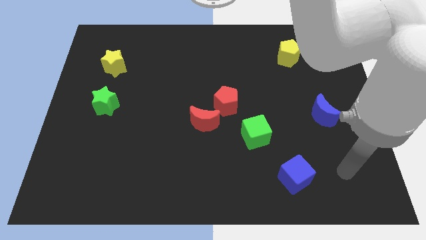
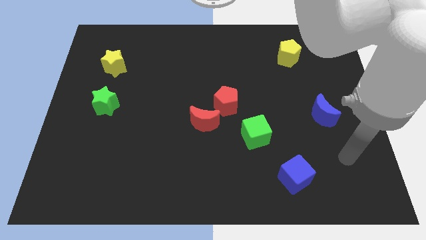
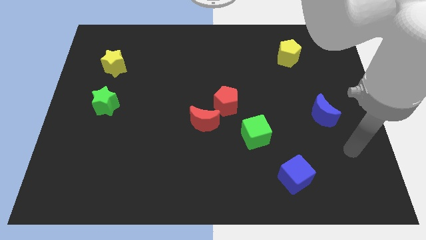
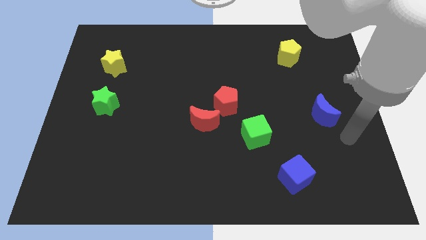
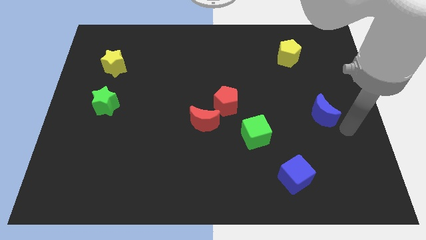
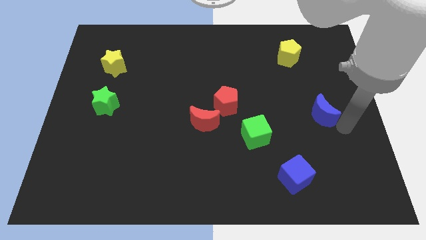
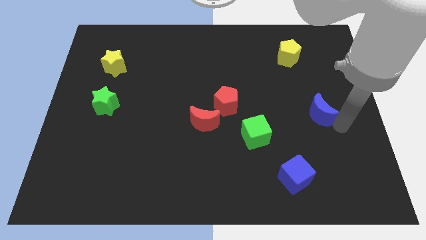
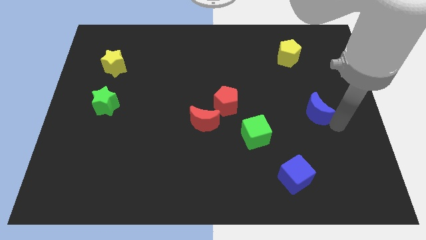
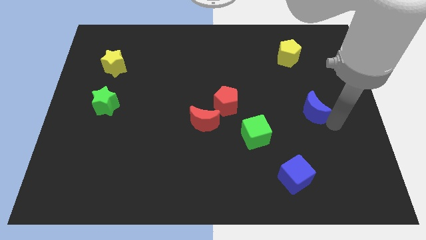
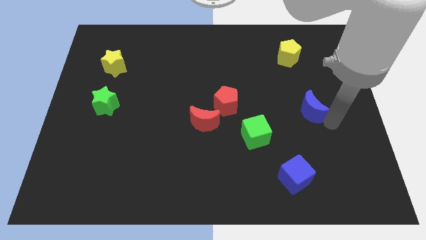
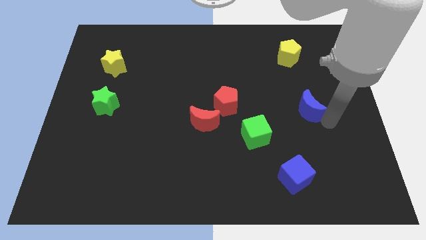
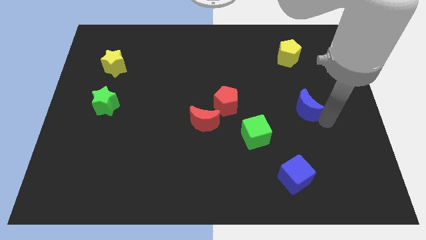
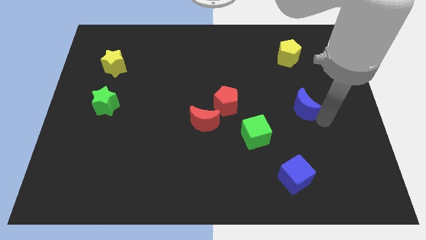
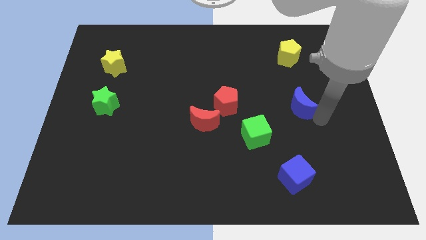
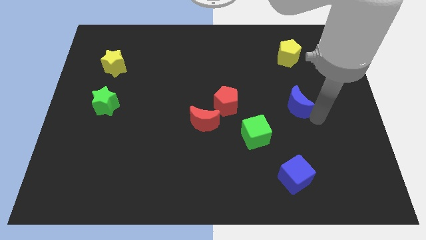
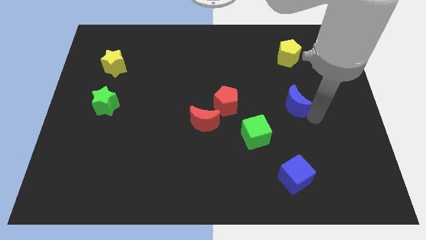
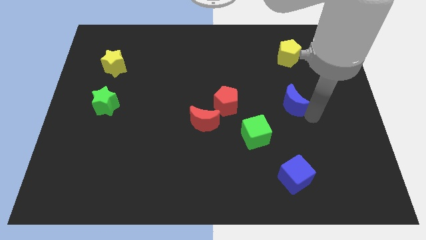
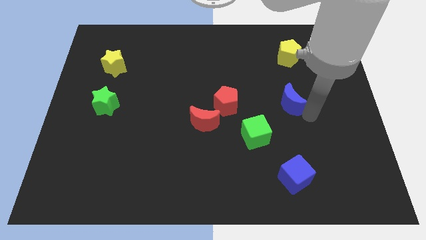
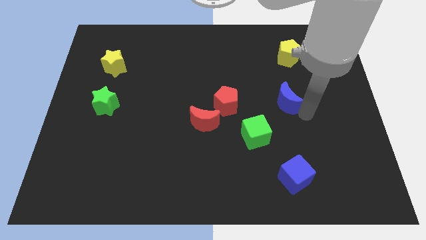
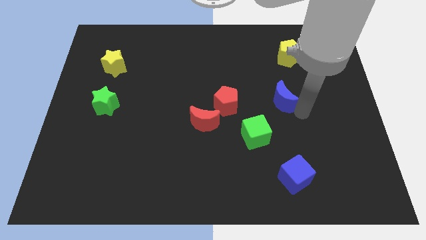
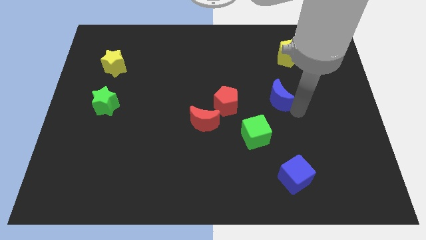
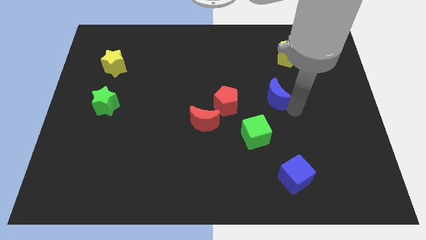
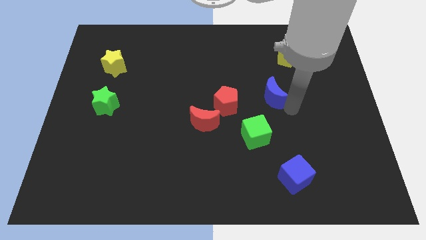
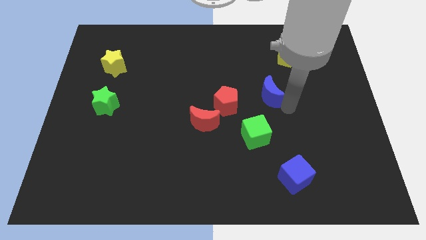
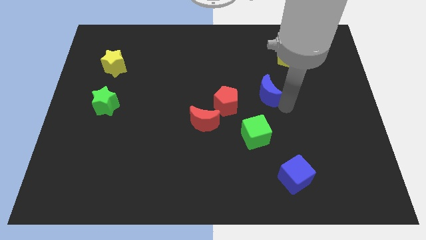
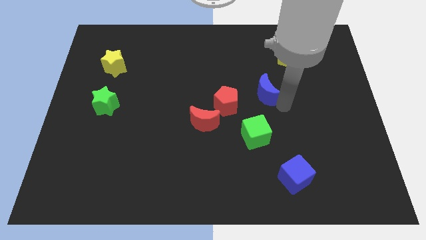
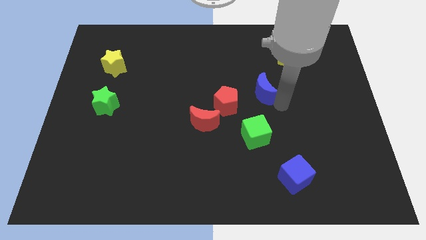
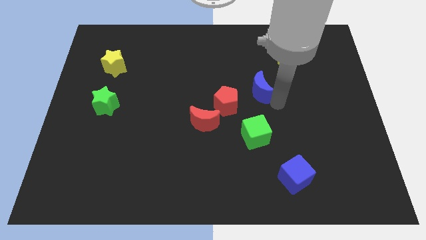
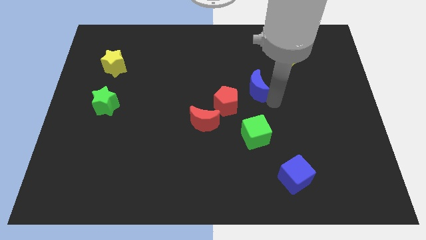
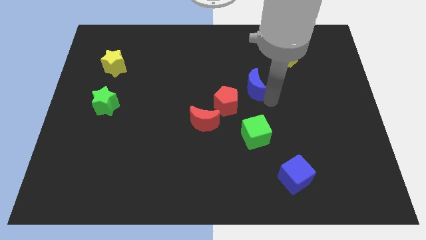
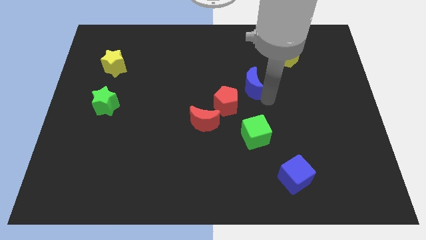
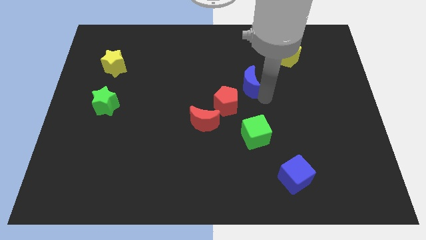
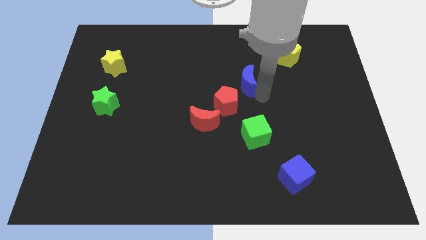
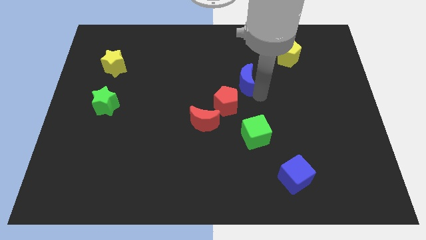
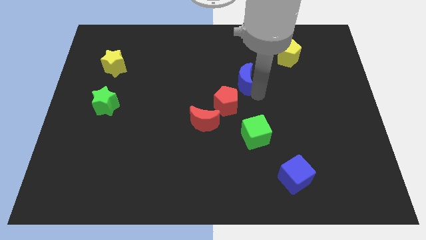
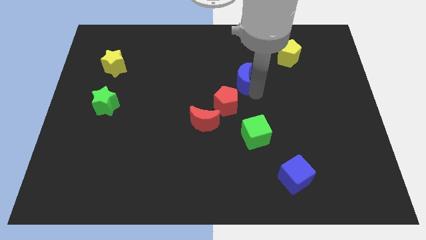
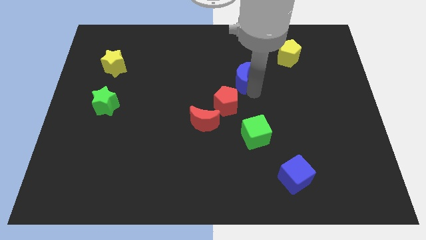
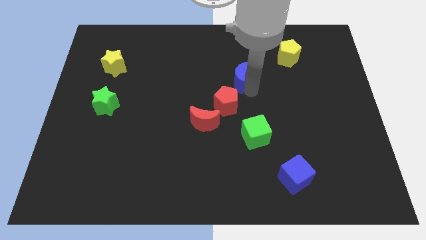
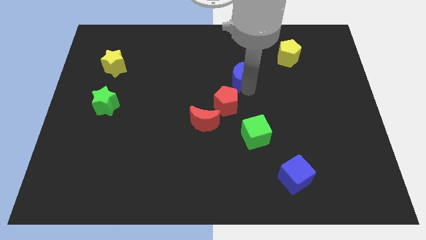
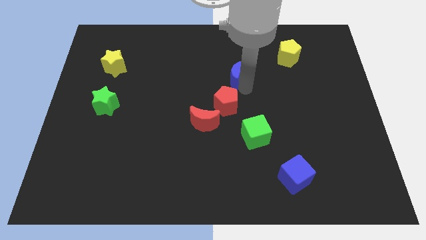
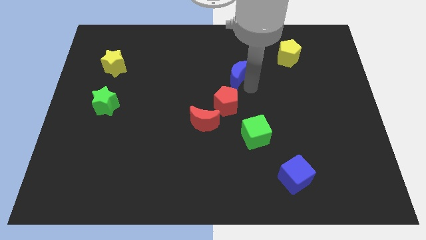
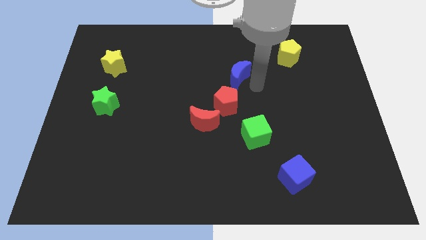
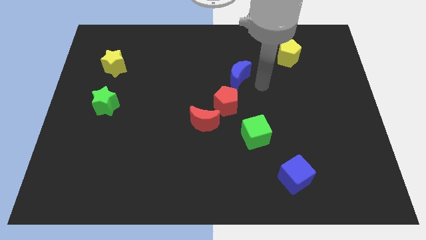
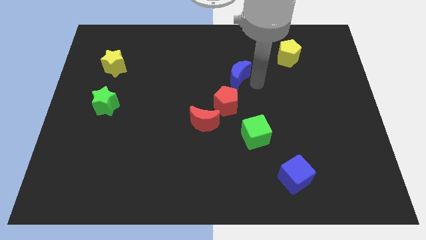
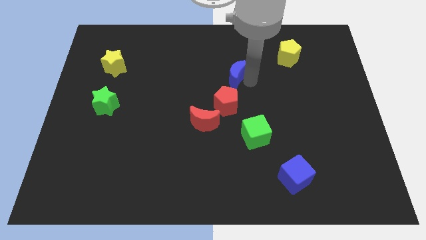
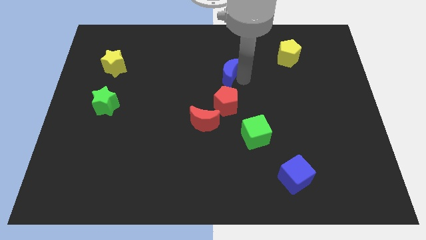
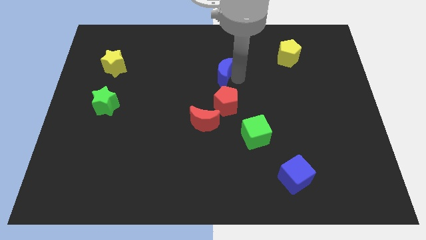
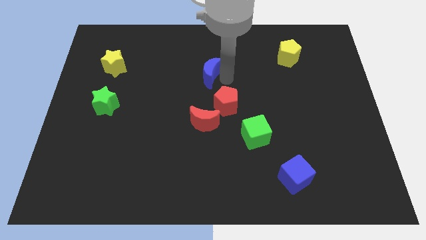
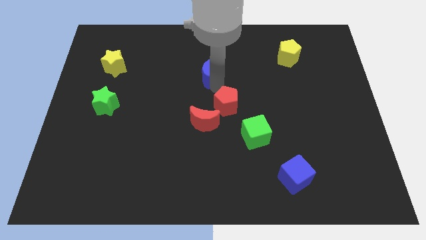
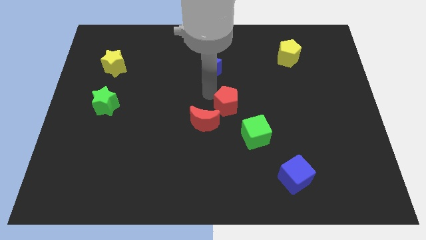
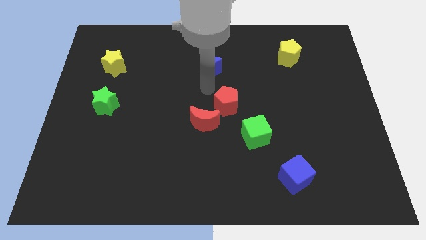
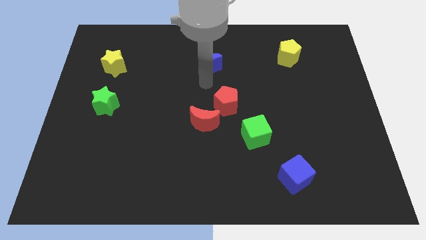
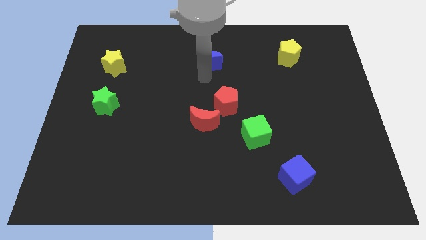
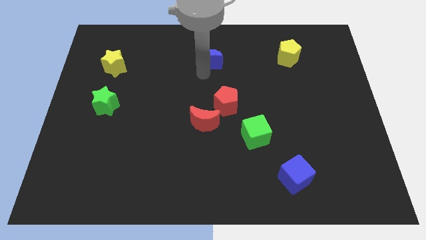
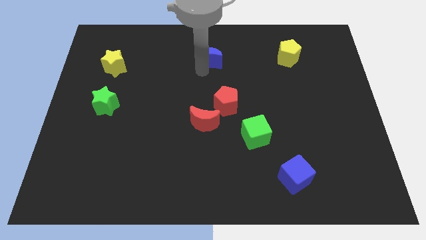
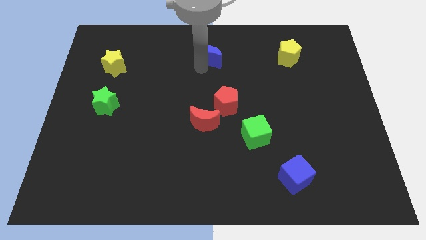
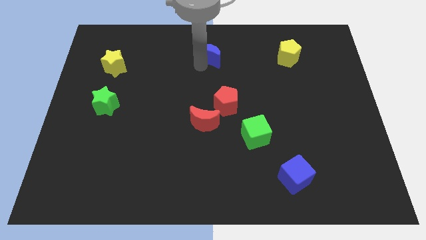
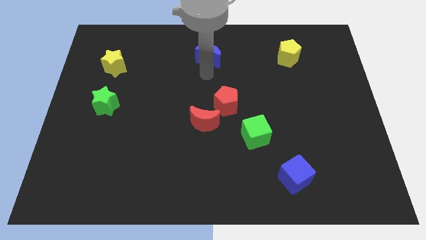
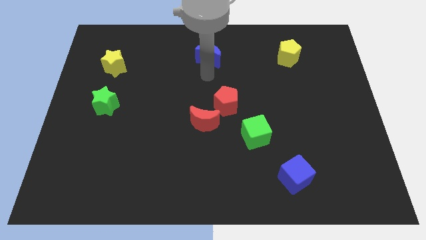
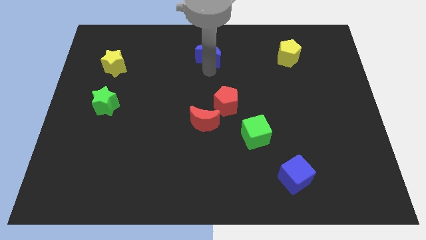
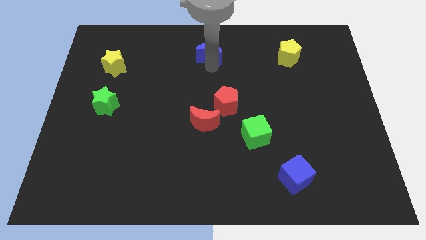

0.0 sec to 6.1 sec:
move the blue moon to the top side

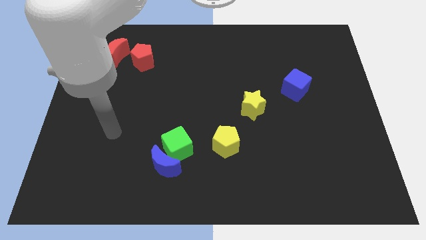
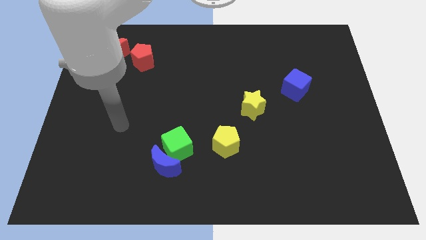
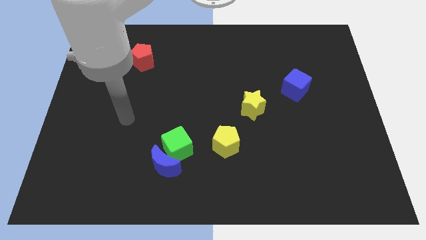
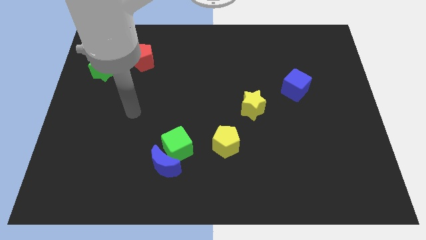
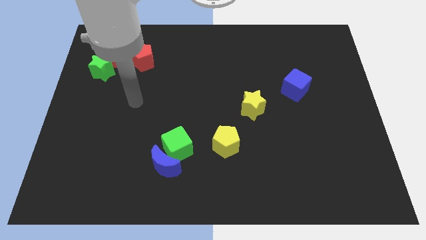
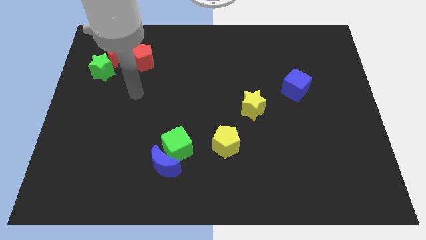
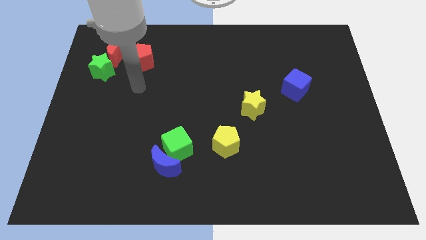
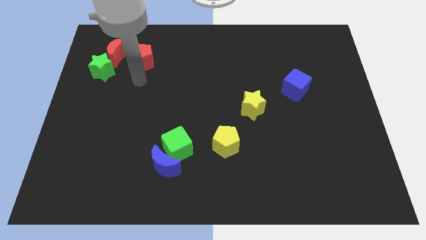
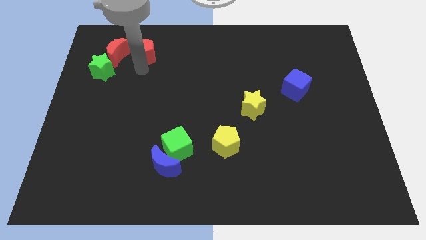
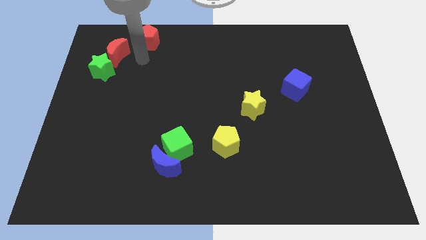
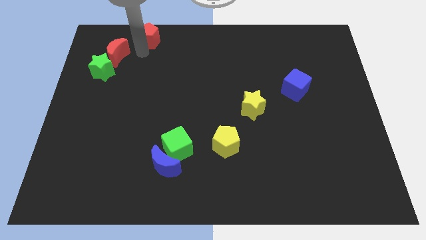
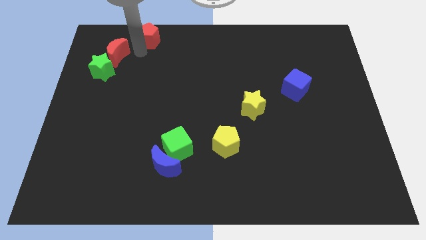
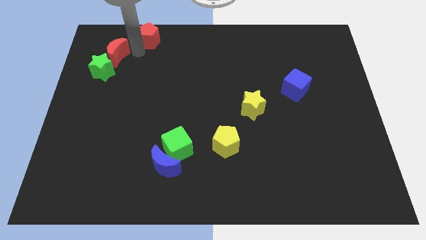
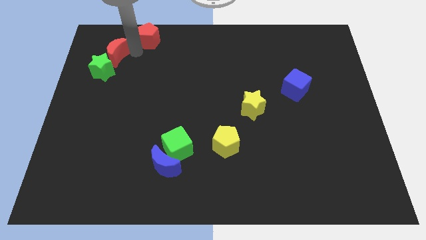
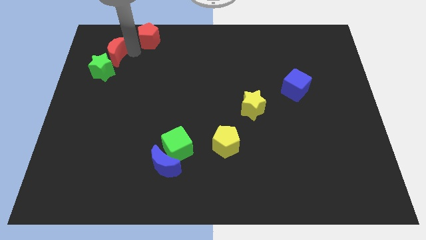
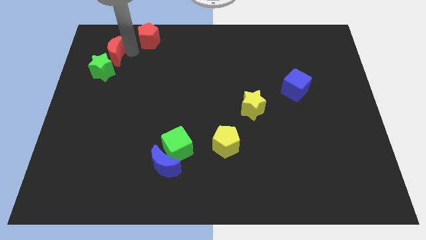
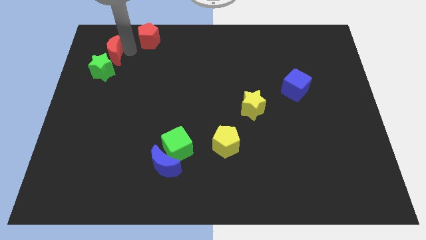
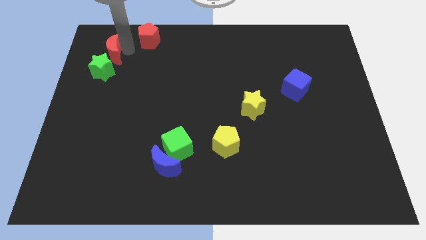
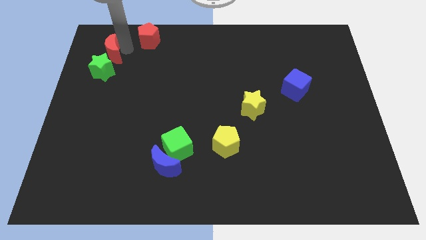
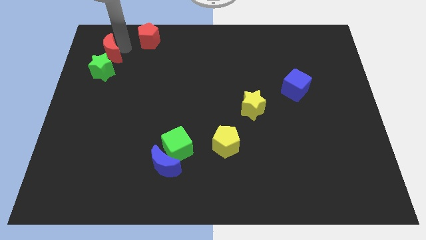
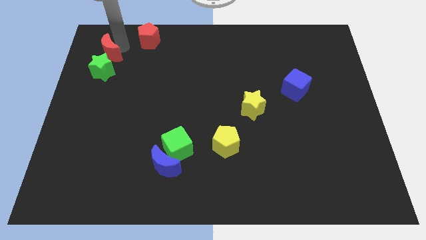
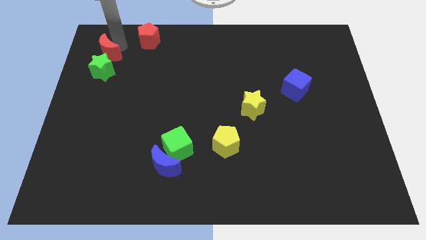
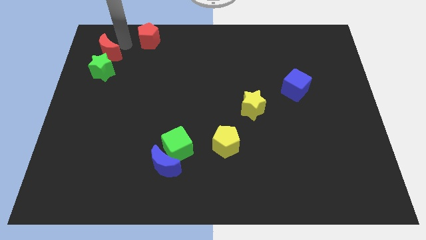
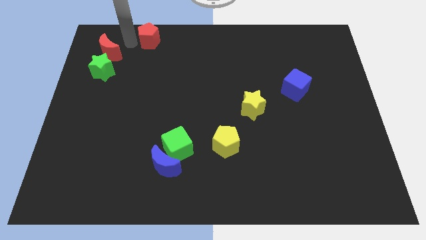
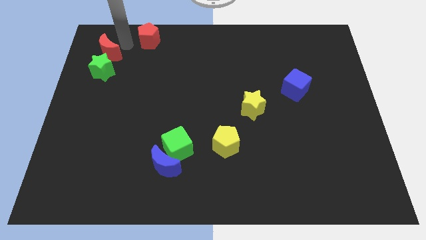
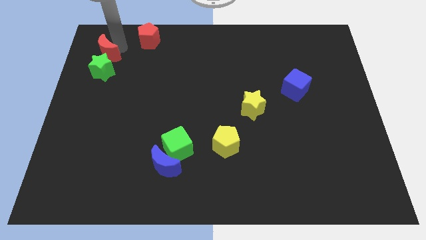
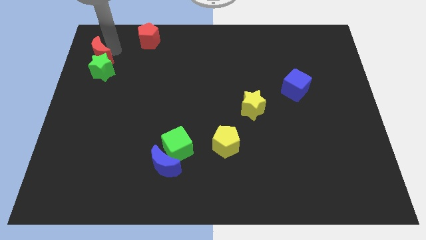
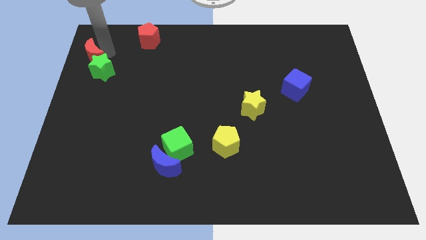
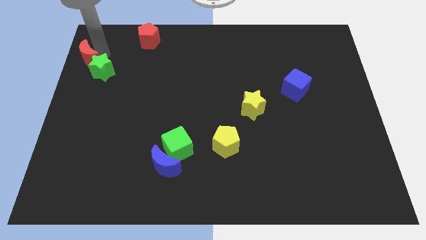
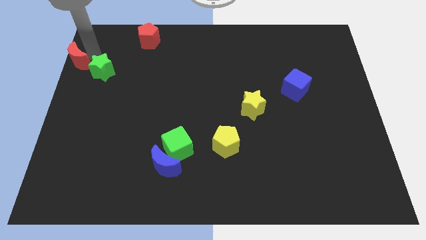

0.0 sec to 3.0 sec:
slide the red moon to the left side of the board
